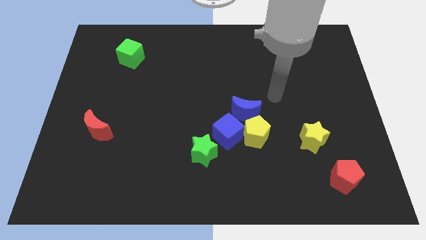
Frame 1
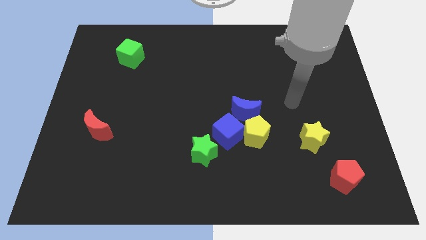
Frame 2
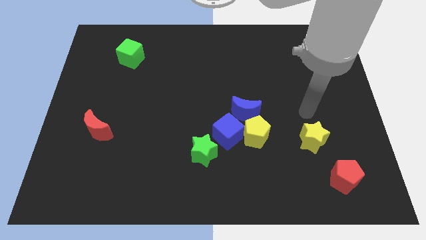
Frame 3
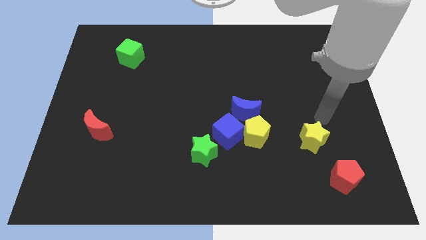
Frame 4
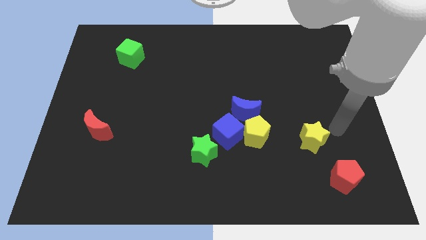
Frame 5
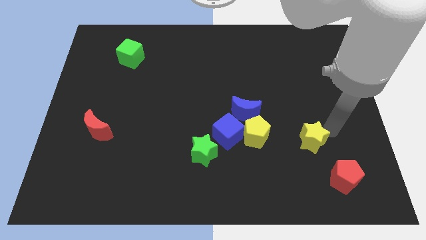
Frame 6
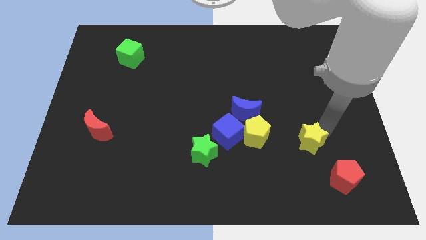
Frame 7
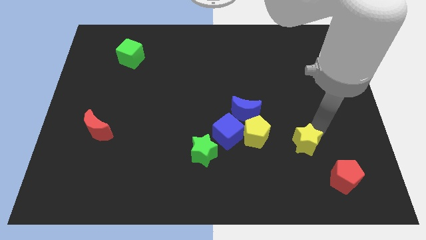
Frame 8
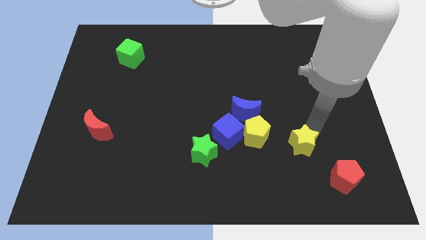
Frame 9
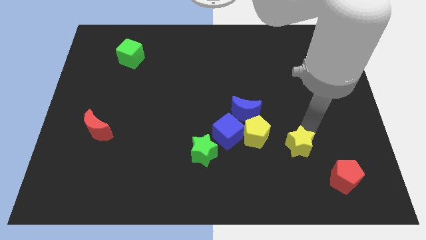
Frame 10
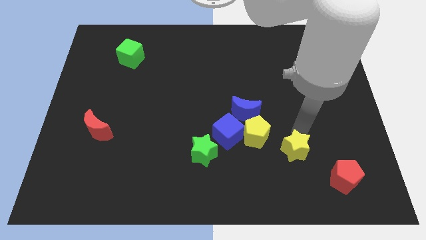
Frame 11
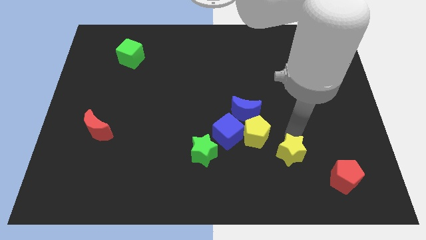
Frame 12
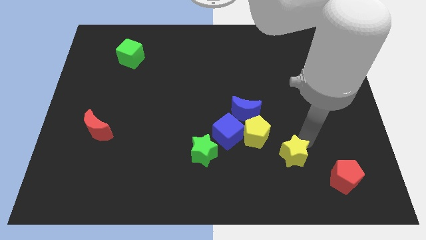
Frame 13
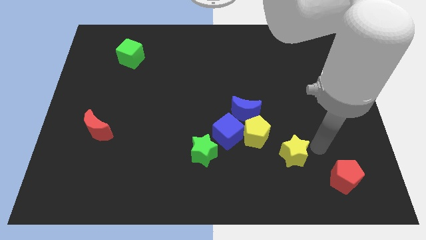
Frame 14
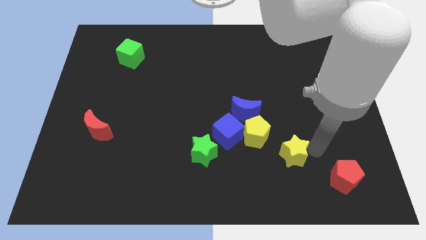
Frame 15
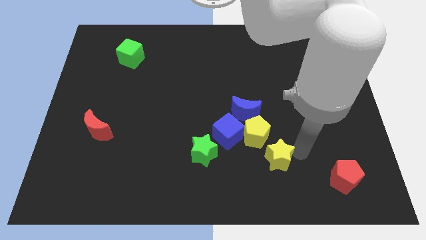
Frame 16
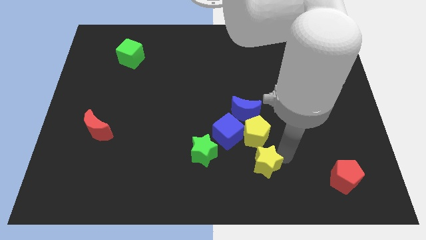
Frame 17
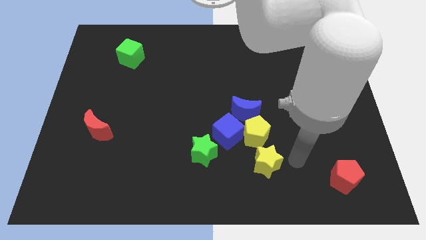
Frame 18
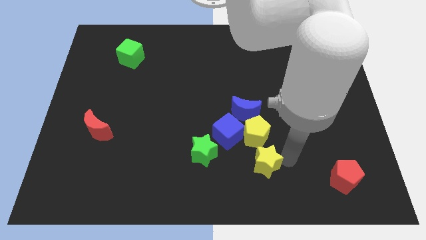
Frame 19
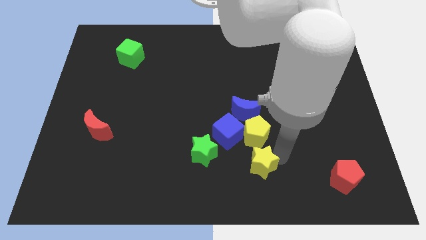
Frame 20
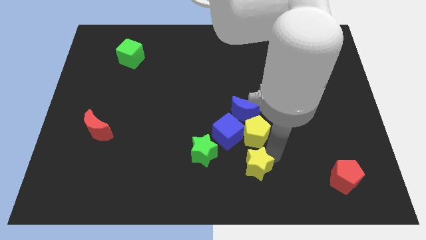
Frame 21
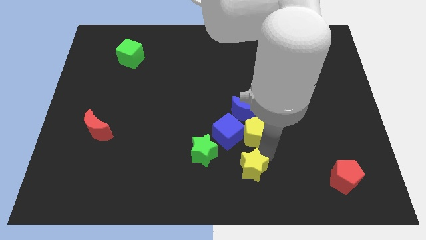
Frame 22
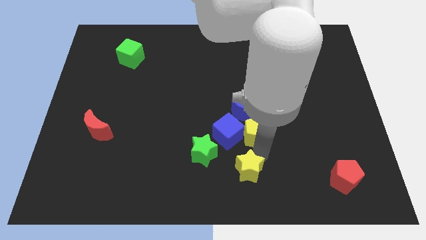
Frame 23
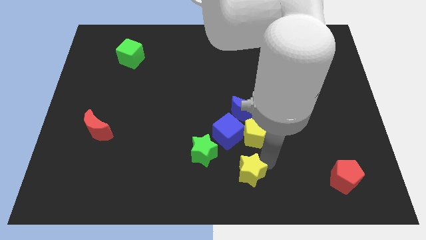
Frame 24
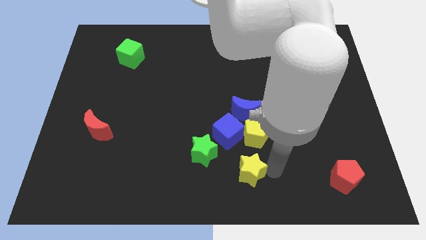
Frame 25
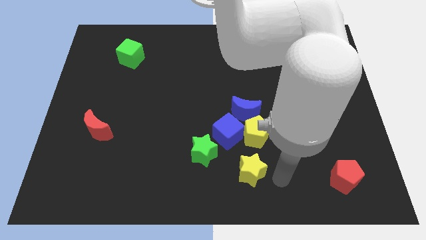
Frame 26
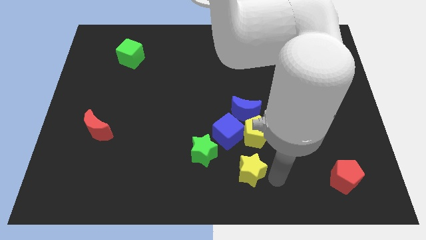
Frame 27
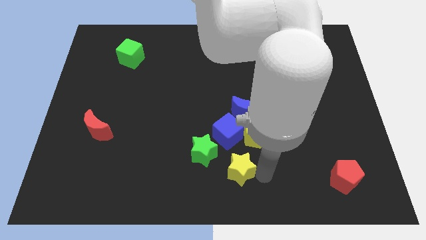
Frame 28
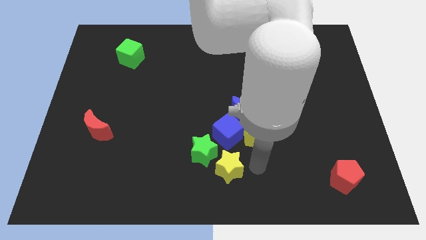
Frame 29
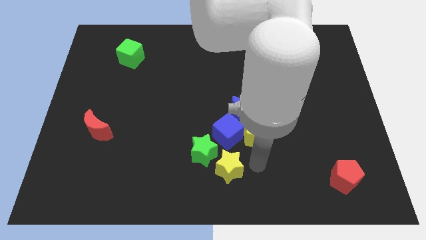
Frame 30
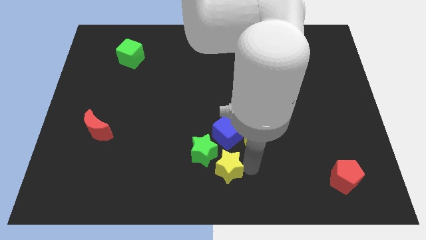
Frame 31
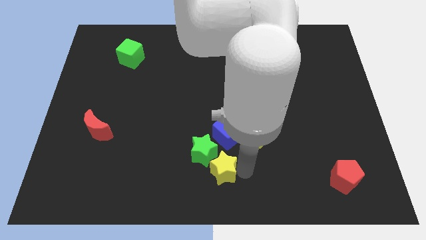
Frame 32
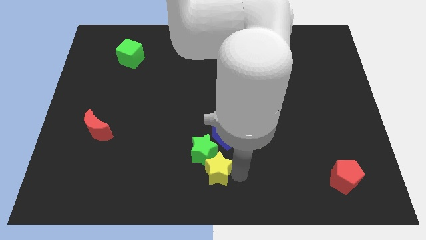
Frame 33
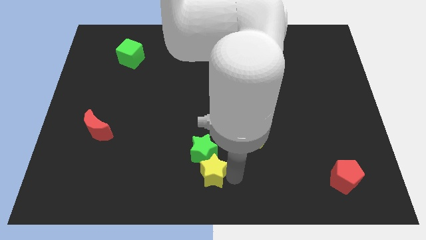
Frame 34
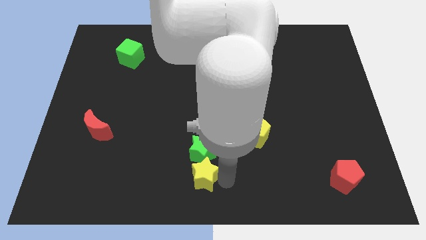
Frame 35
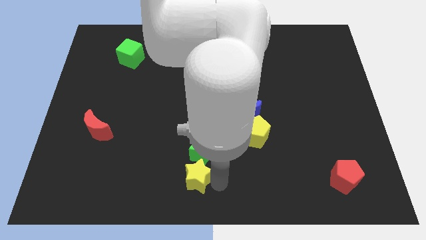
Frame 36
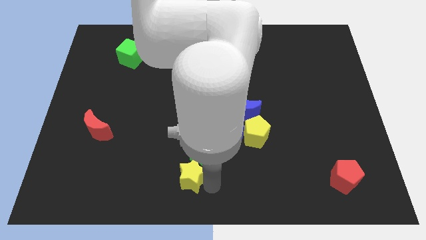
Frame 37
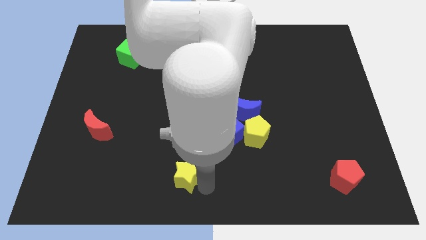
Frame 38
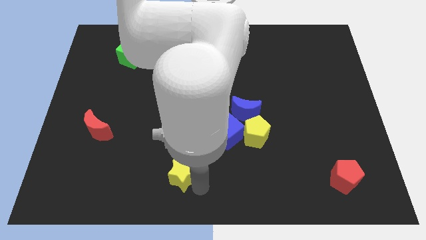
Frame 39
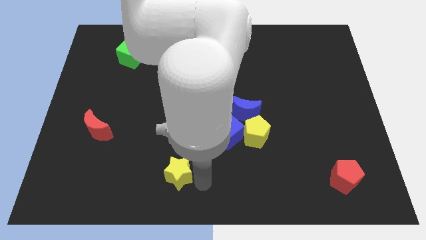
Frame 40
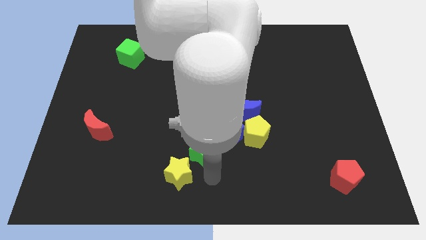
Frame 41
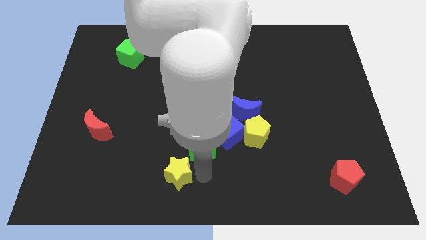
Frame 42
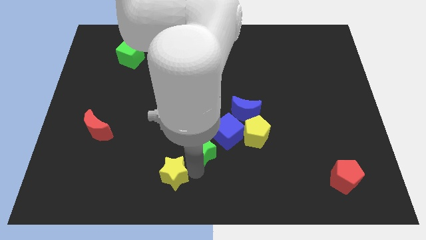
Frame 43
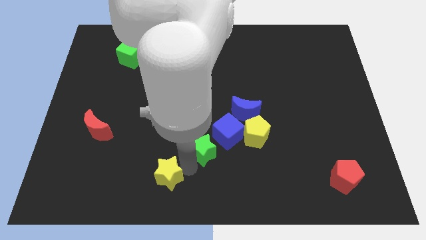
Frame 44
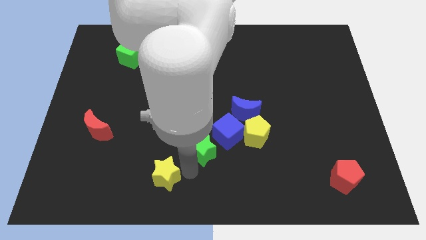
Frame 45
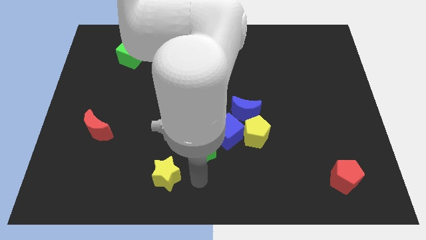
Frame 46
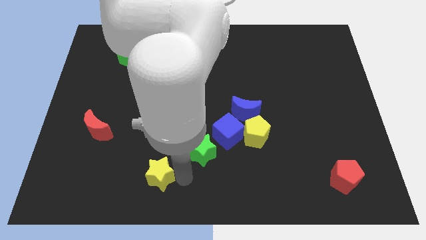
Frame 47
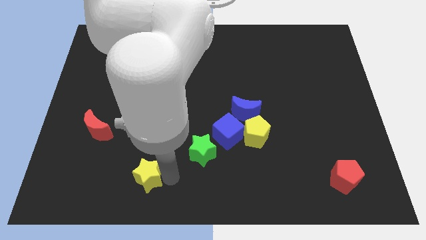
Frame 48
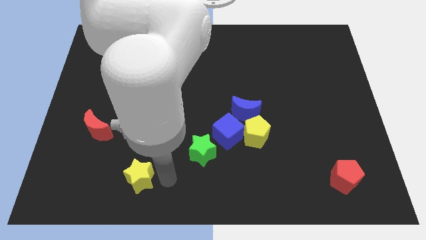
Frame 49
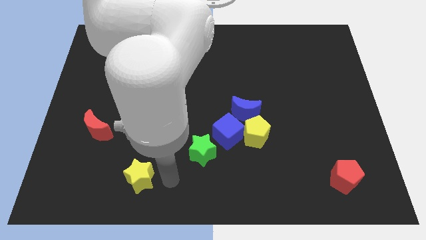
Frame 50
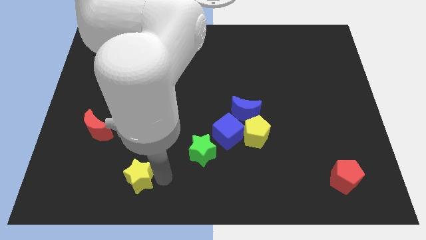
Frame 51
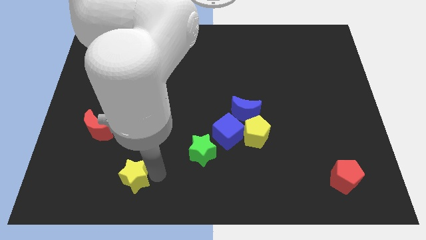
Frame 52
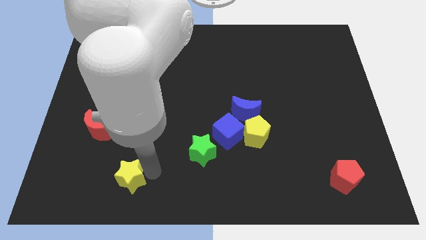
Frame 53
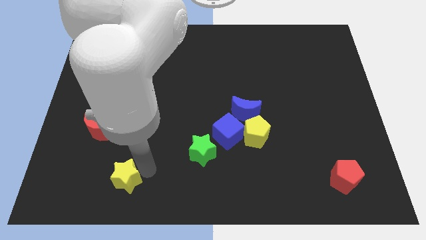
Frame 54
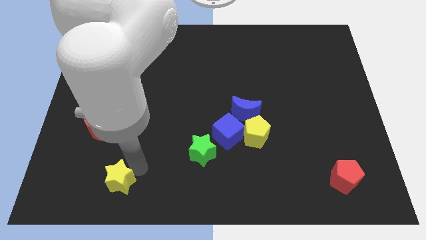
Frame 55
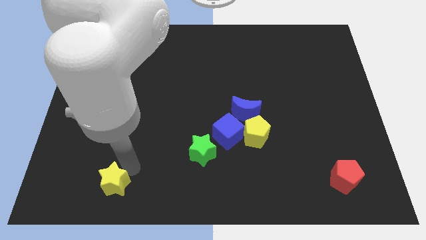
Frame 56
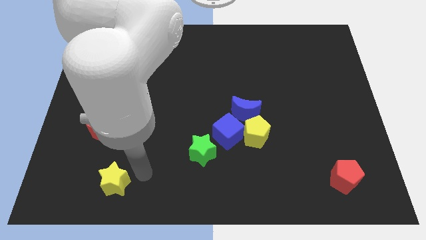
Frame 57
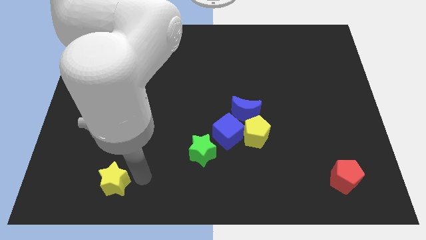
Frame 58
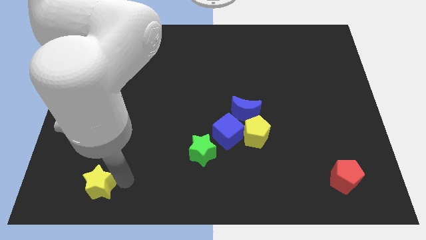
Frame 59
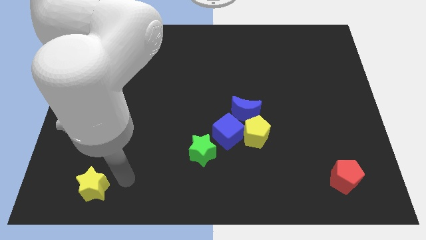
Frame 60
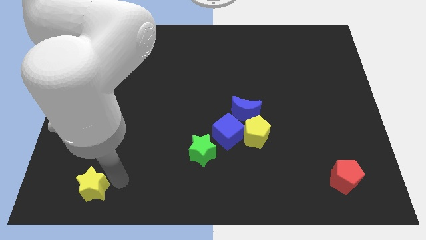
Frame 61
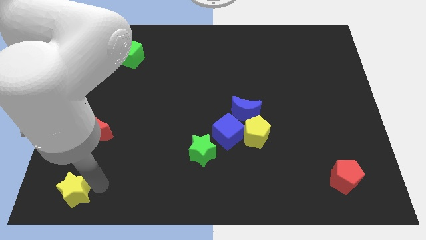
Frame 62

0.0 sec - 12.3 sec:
push the yellow star to the bottom left

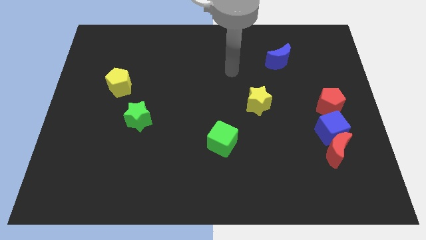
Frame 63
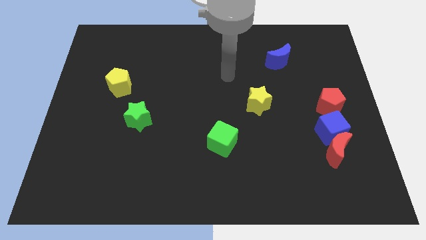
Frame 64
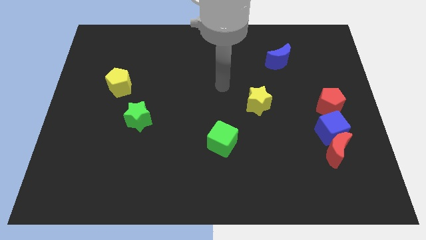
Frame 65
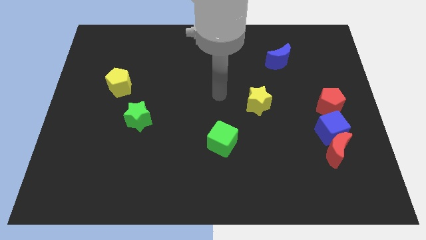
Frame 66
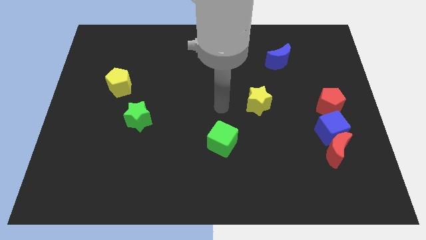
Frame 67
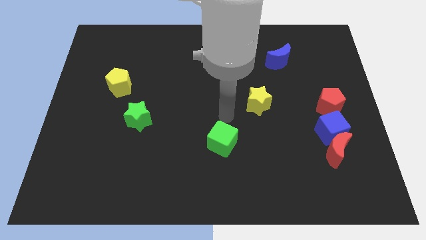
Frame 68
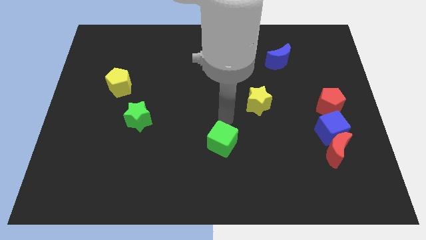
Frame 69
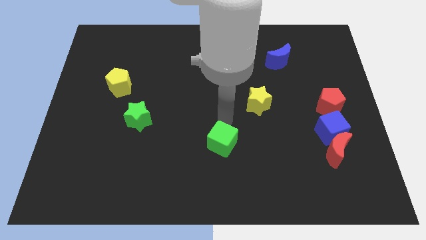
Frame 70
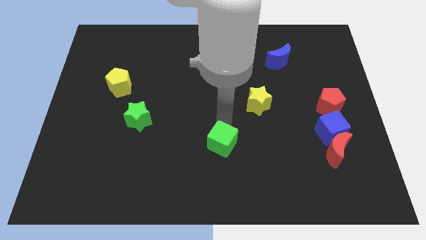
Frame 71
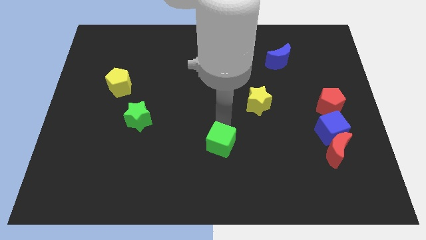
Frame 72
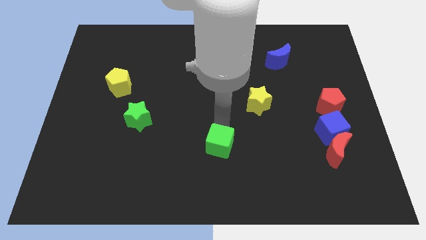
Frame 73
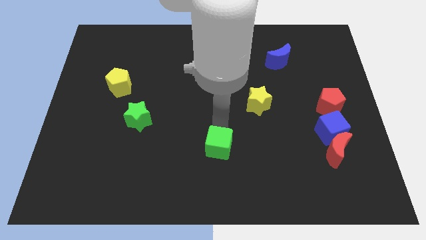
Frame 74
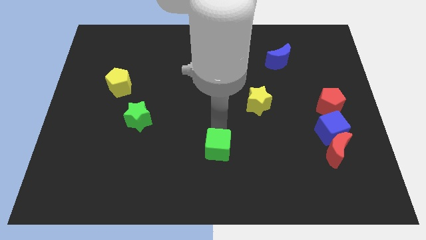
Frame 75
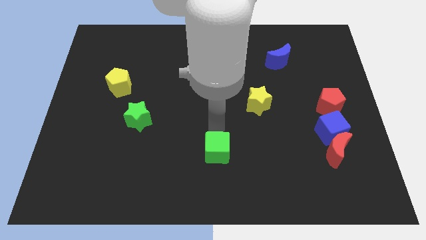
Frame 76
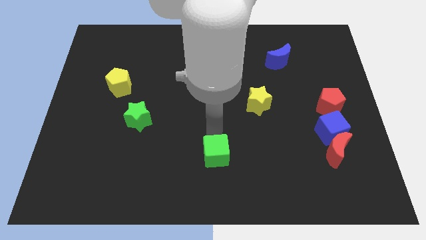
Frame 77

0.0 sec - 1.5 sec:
push the green cube to the bottom
